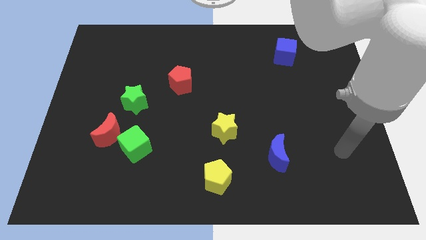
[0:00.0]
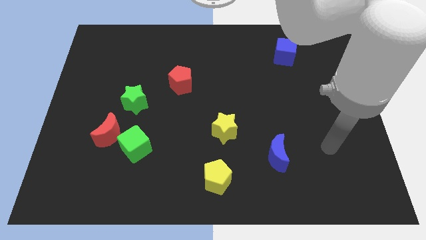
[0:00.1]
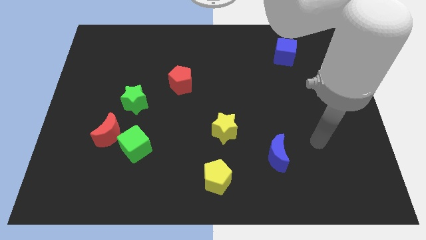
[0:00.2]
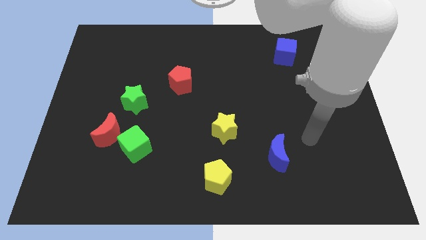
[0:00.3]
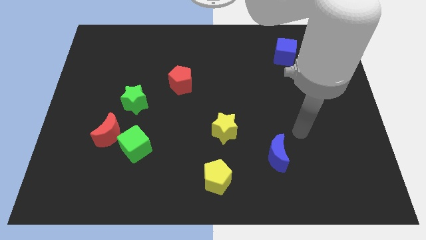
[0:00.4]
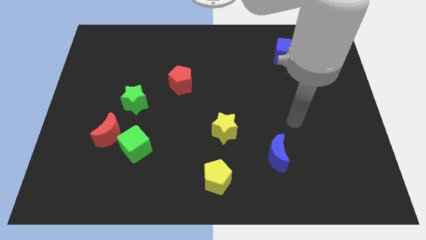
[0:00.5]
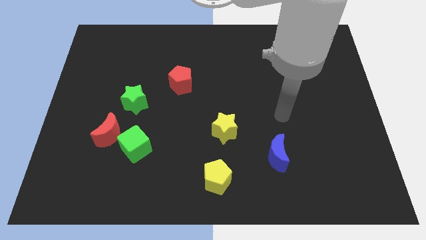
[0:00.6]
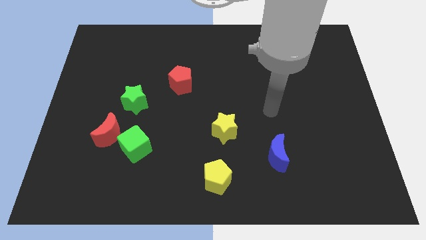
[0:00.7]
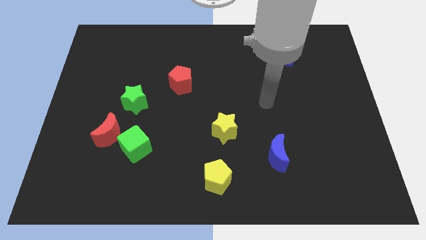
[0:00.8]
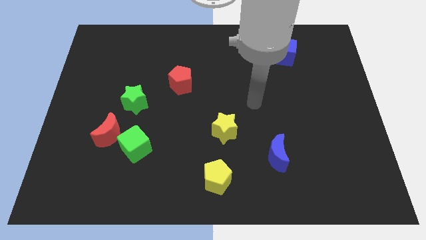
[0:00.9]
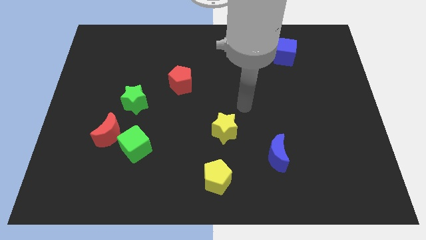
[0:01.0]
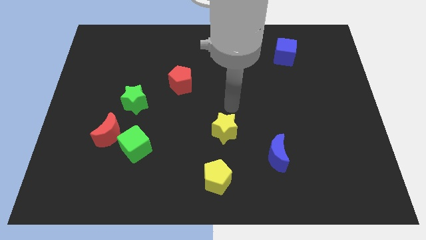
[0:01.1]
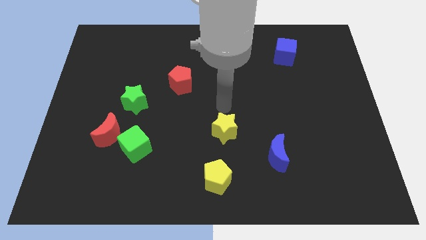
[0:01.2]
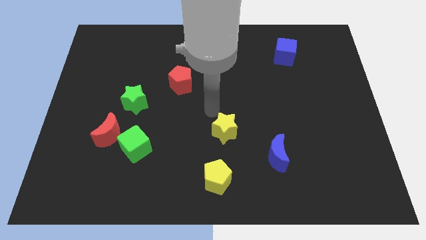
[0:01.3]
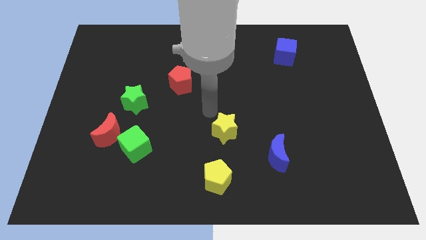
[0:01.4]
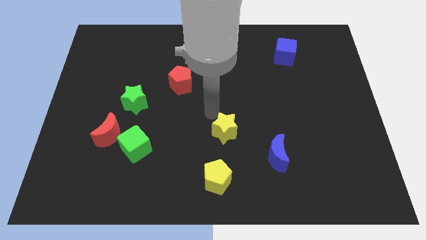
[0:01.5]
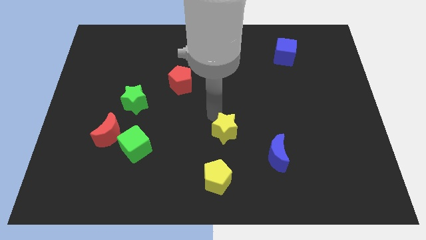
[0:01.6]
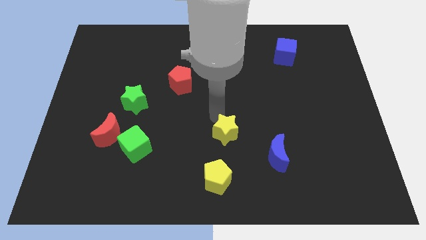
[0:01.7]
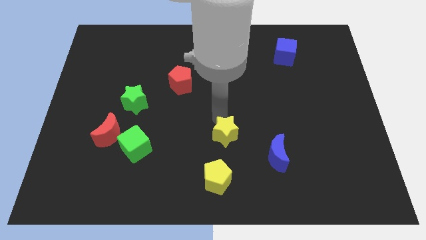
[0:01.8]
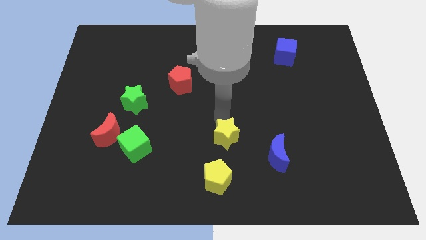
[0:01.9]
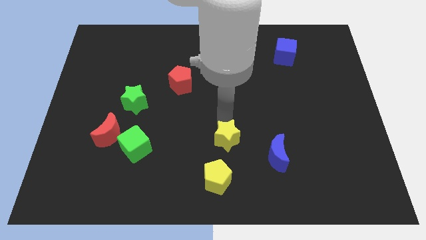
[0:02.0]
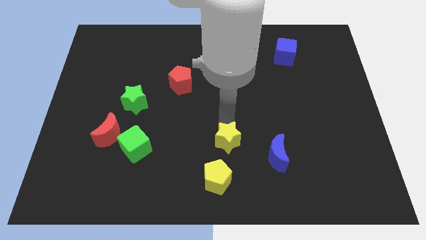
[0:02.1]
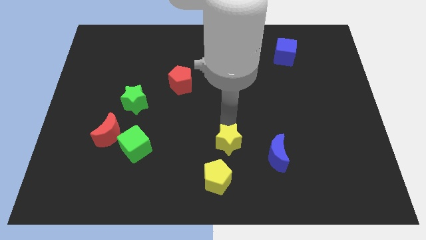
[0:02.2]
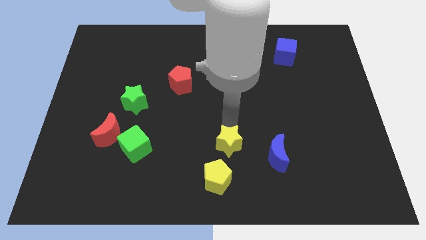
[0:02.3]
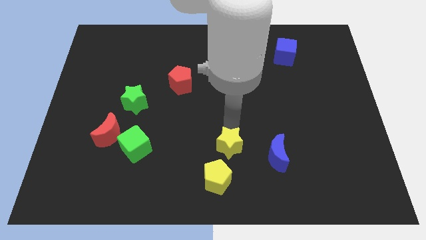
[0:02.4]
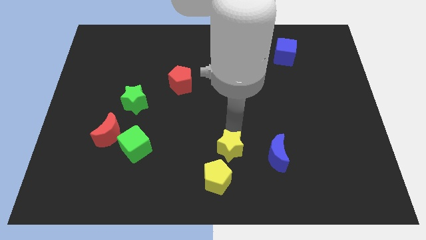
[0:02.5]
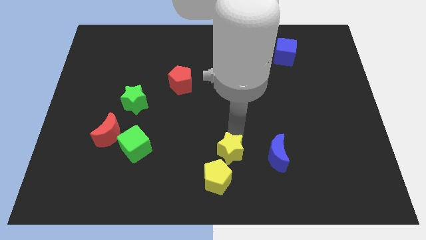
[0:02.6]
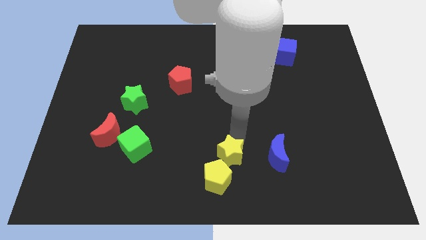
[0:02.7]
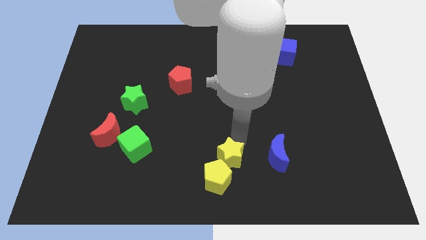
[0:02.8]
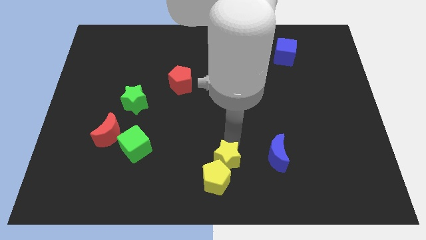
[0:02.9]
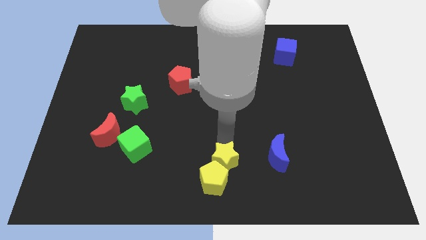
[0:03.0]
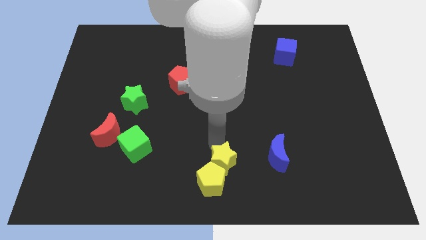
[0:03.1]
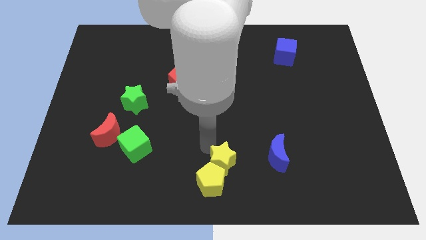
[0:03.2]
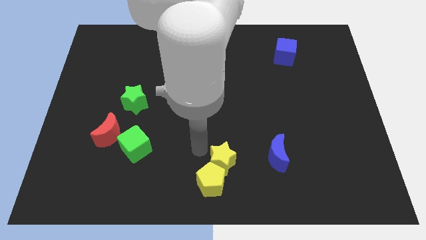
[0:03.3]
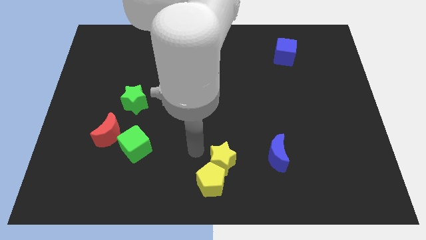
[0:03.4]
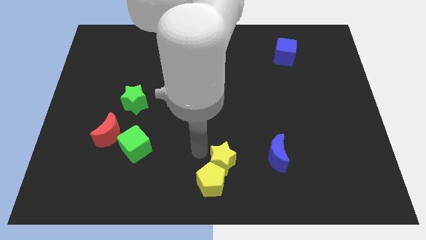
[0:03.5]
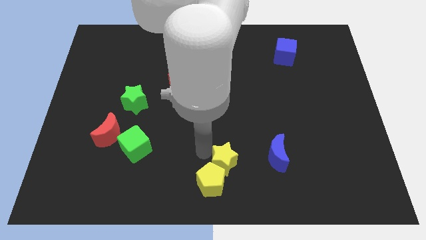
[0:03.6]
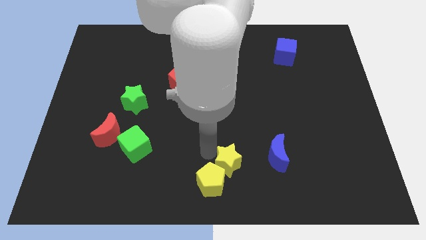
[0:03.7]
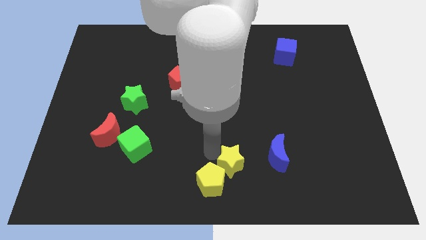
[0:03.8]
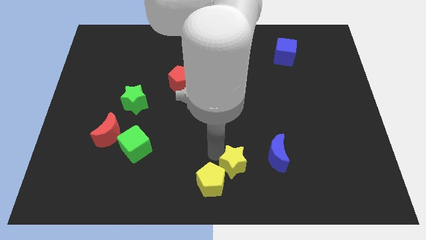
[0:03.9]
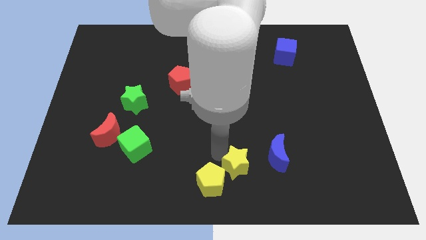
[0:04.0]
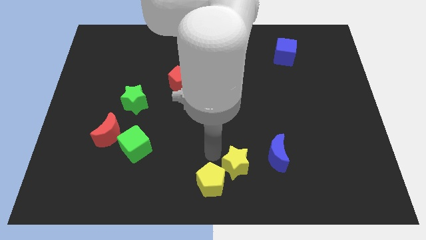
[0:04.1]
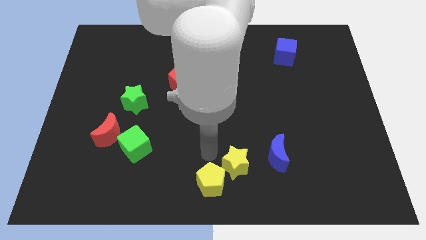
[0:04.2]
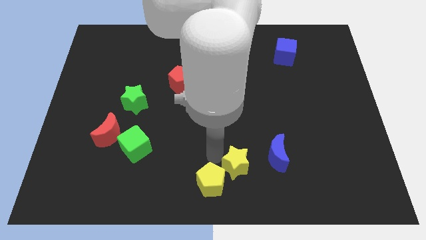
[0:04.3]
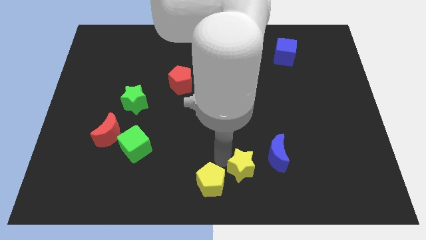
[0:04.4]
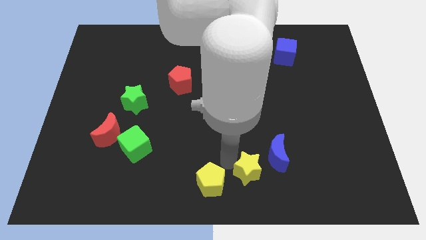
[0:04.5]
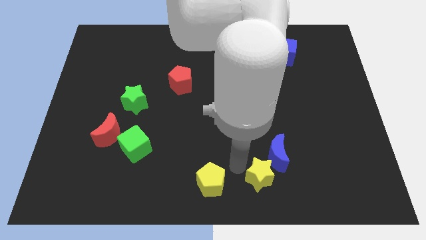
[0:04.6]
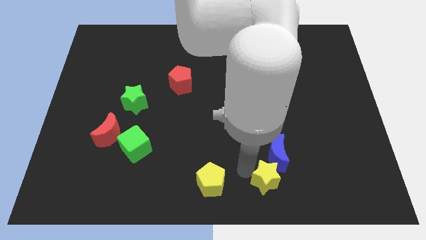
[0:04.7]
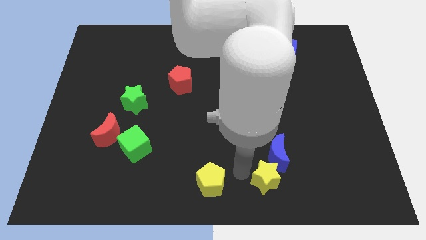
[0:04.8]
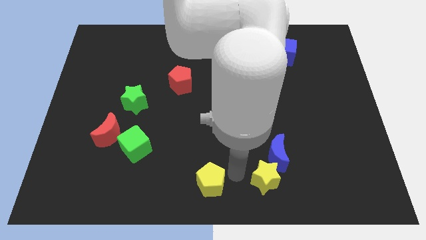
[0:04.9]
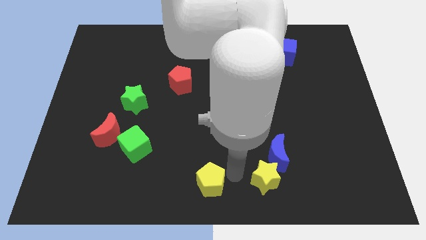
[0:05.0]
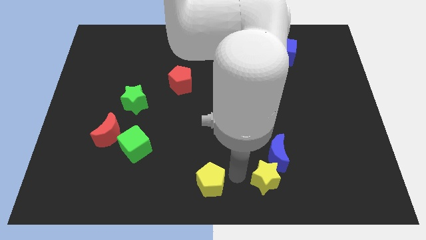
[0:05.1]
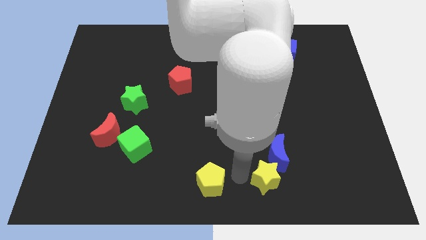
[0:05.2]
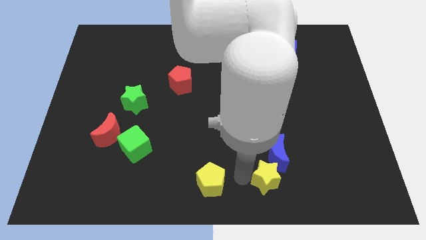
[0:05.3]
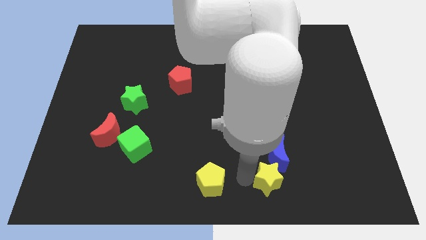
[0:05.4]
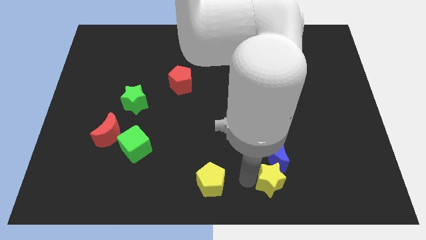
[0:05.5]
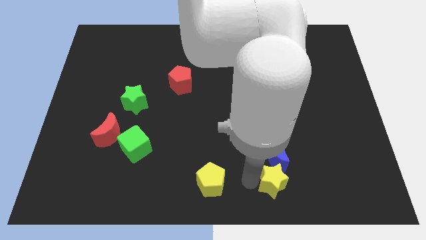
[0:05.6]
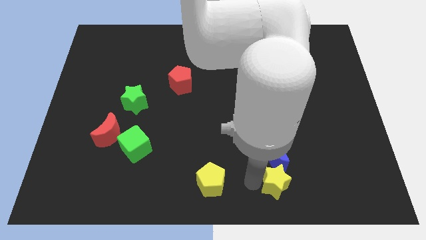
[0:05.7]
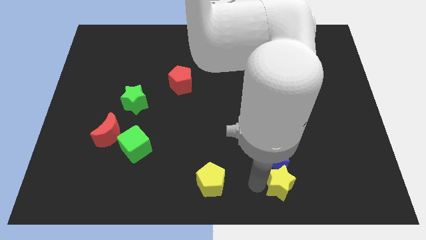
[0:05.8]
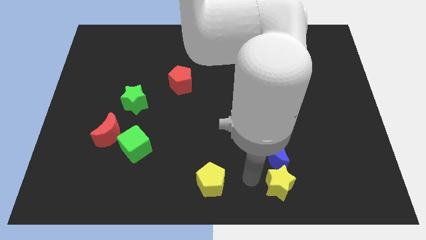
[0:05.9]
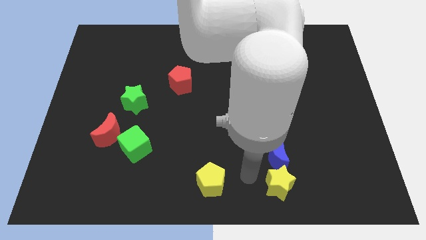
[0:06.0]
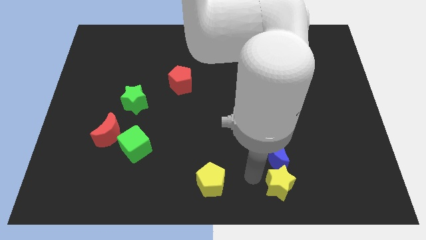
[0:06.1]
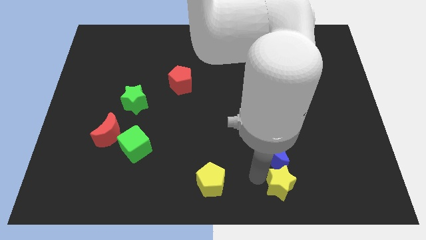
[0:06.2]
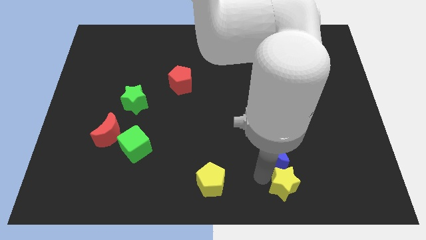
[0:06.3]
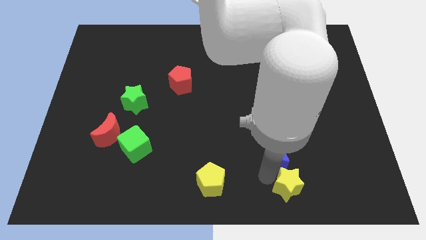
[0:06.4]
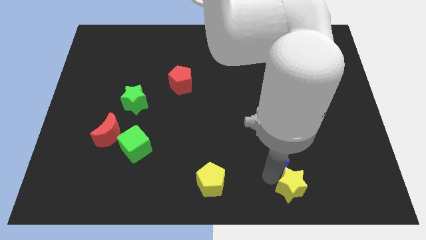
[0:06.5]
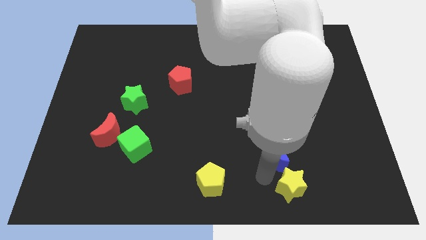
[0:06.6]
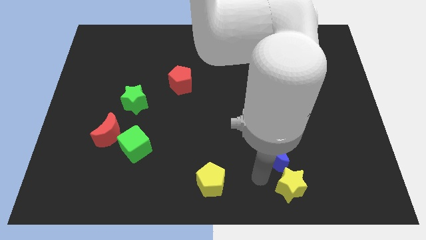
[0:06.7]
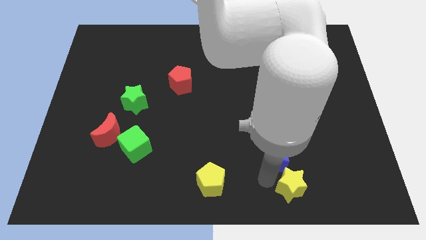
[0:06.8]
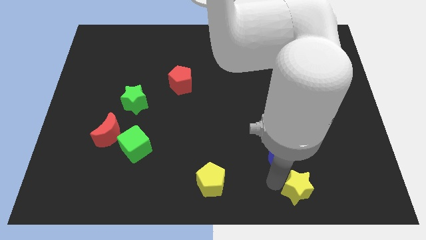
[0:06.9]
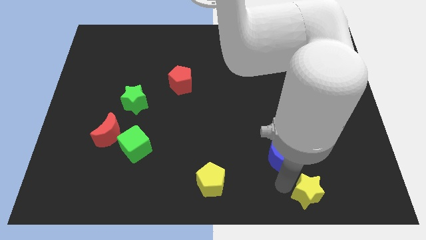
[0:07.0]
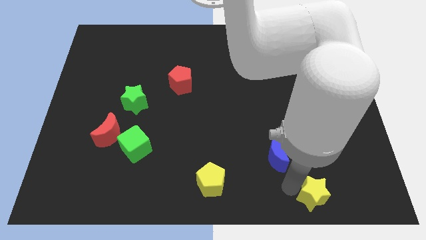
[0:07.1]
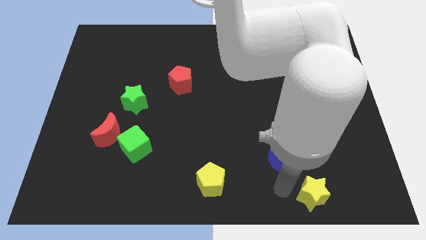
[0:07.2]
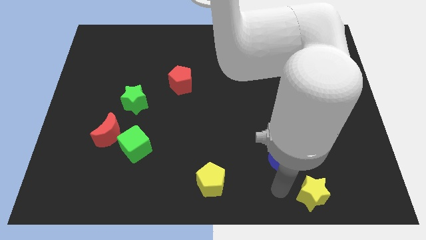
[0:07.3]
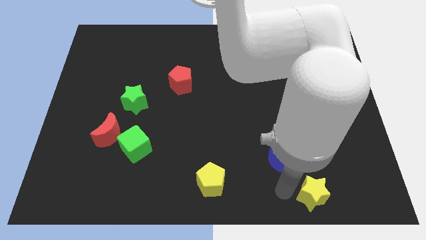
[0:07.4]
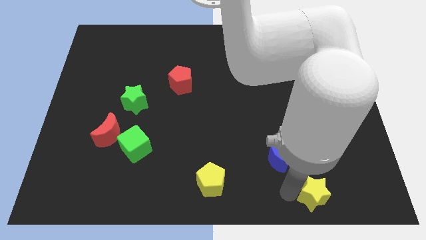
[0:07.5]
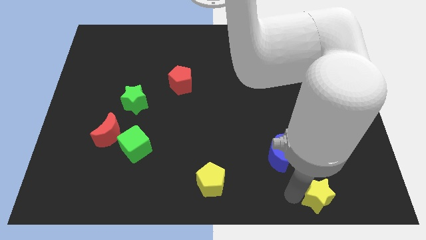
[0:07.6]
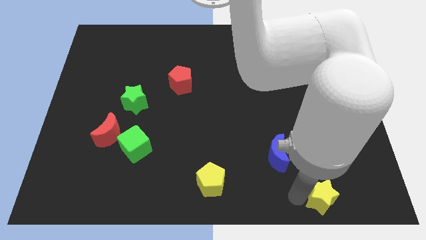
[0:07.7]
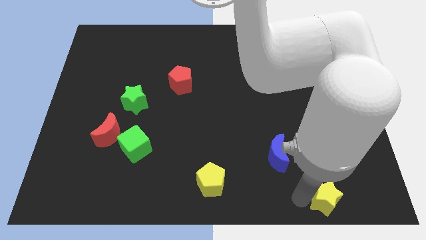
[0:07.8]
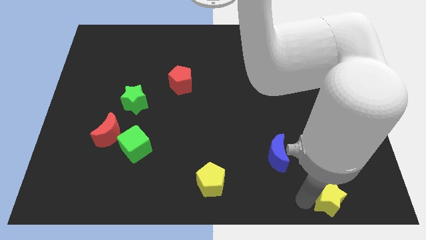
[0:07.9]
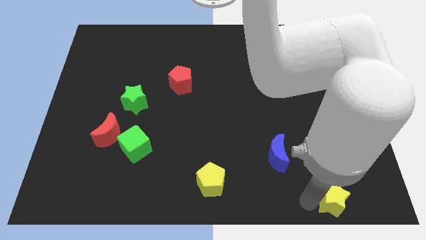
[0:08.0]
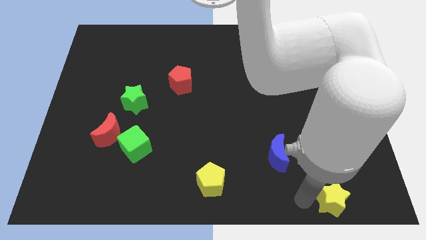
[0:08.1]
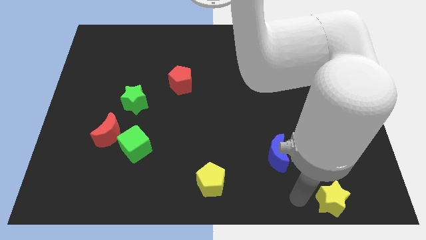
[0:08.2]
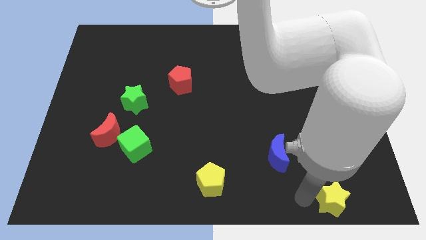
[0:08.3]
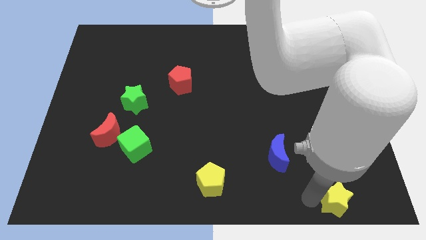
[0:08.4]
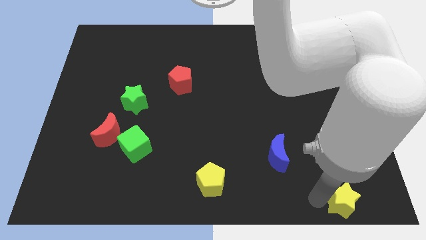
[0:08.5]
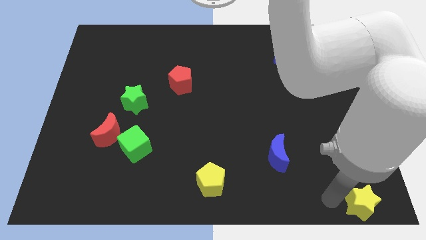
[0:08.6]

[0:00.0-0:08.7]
slide the yellow star to the lower right corner
